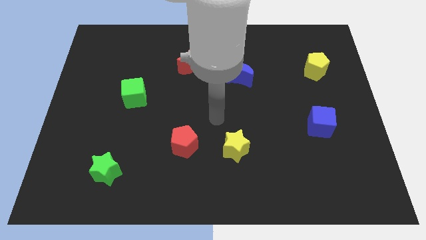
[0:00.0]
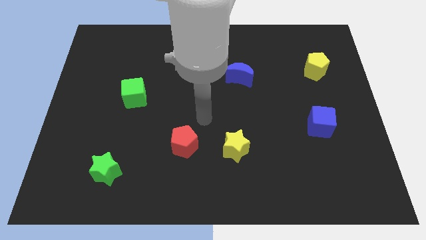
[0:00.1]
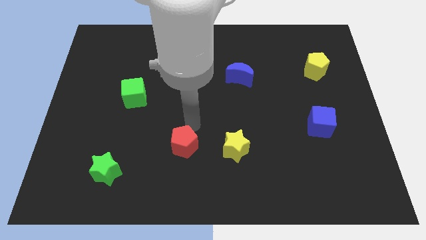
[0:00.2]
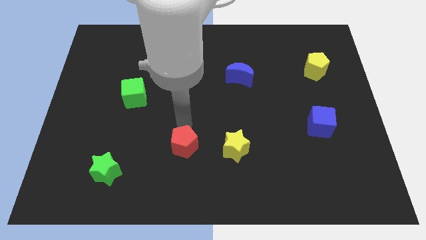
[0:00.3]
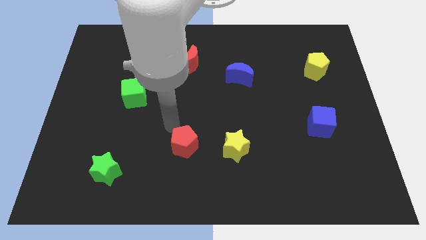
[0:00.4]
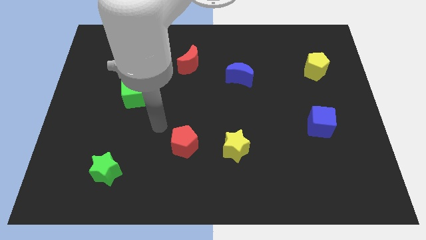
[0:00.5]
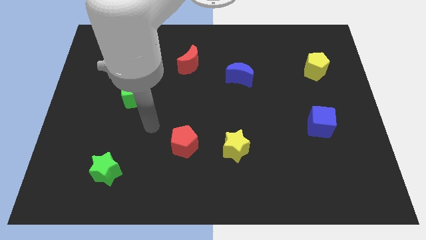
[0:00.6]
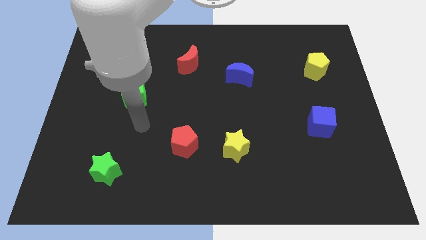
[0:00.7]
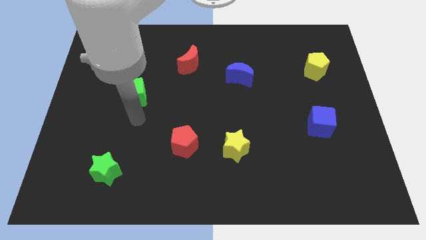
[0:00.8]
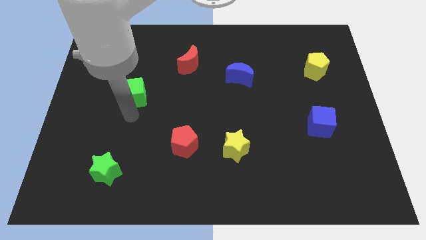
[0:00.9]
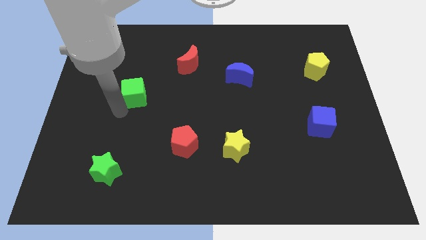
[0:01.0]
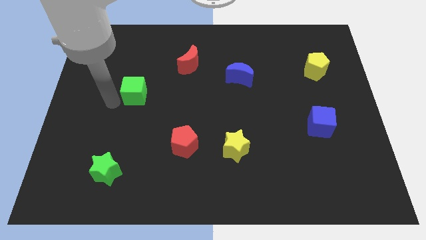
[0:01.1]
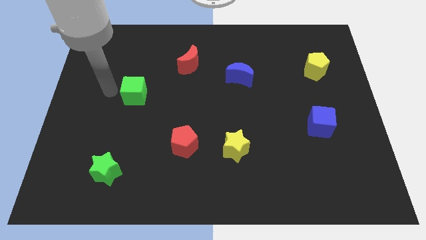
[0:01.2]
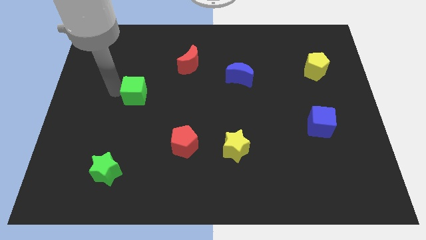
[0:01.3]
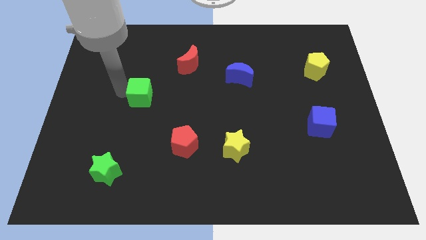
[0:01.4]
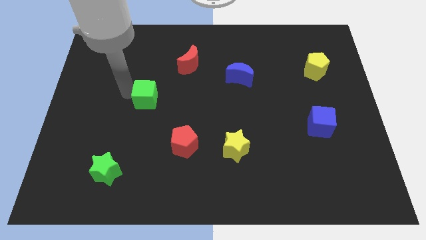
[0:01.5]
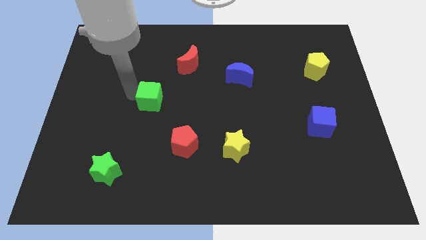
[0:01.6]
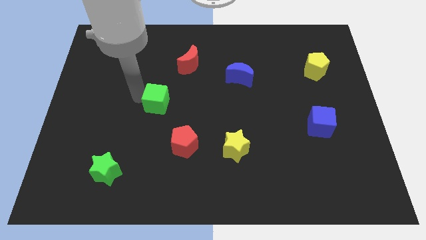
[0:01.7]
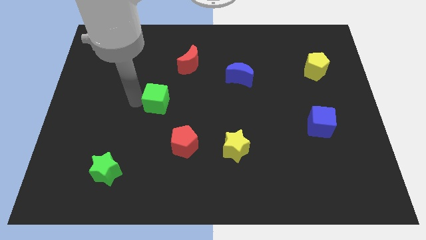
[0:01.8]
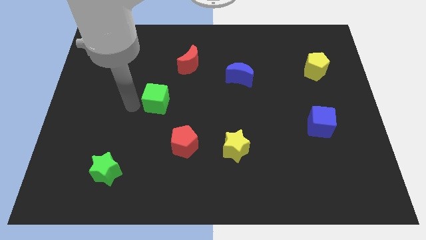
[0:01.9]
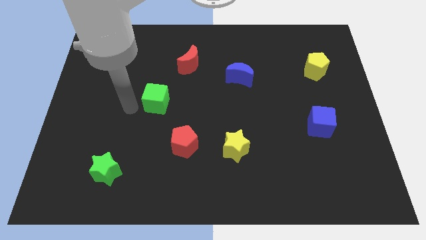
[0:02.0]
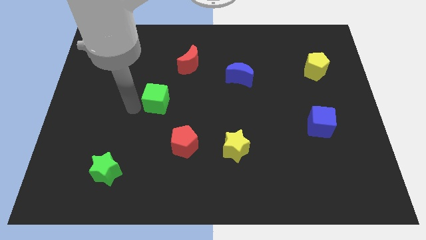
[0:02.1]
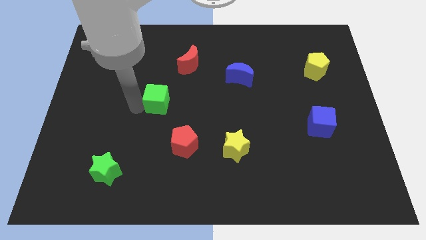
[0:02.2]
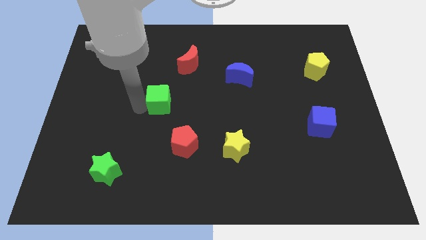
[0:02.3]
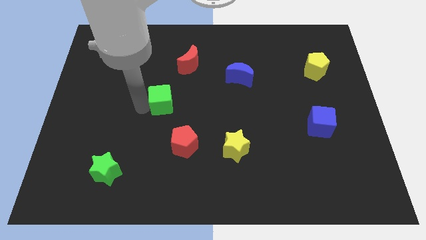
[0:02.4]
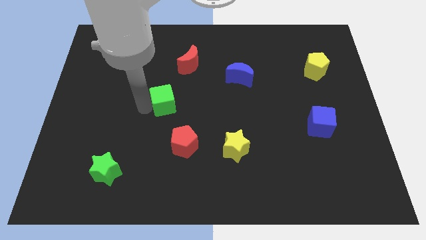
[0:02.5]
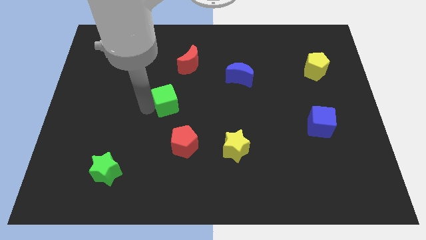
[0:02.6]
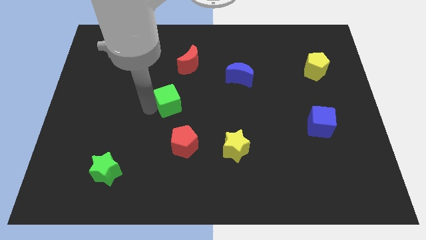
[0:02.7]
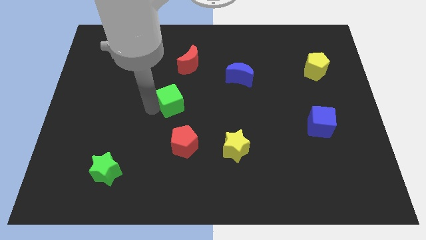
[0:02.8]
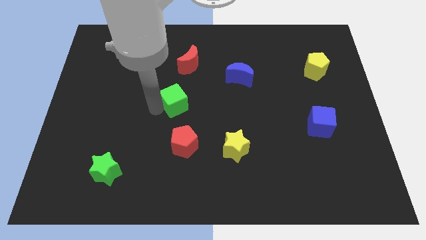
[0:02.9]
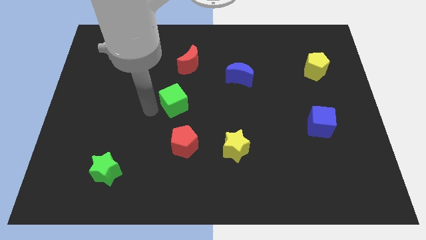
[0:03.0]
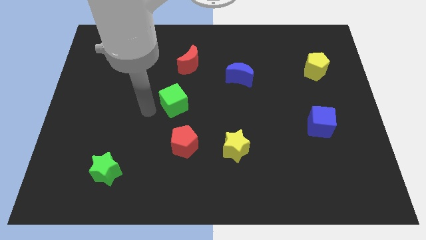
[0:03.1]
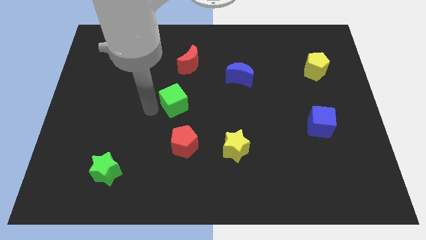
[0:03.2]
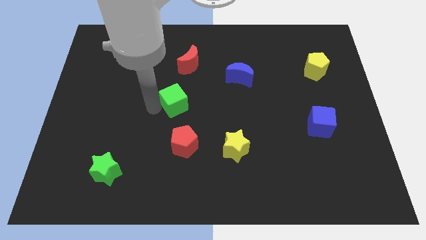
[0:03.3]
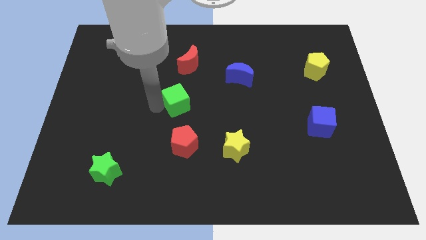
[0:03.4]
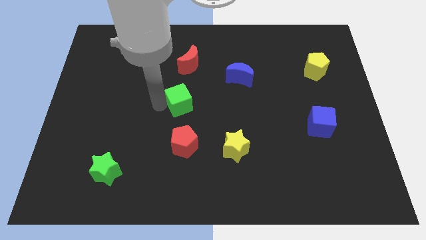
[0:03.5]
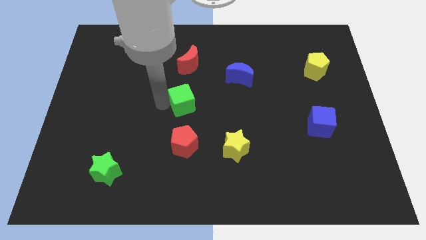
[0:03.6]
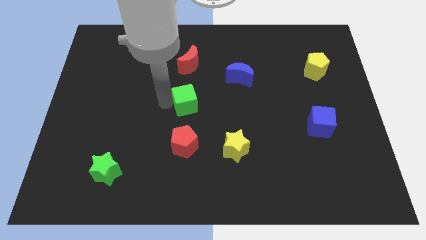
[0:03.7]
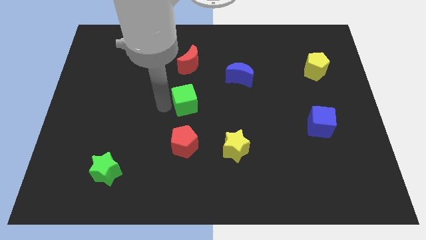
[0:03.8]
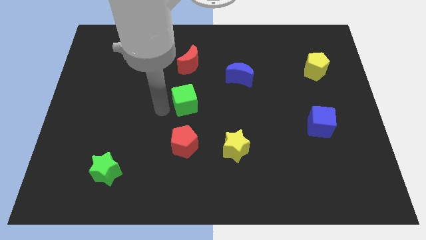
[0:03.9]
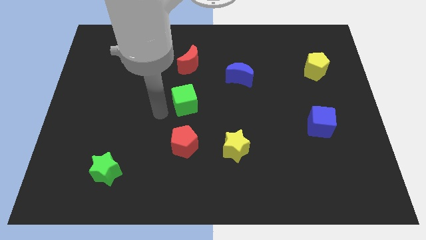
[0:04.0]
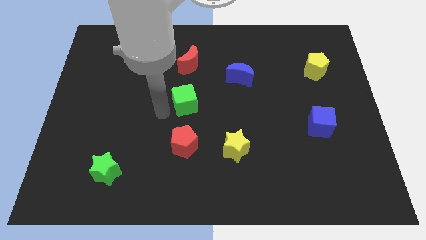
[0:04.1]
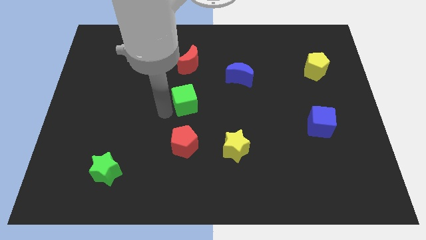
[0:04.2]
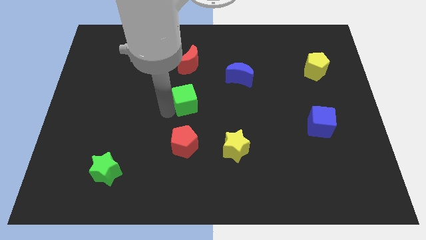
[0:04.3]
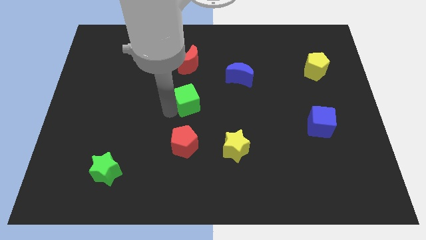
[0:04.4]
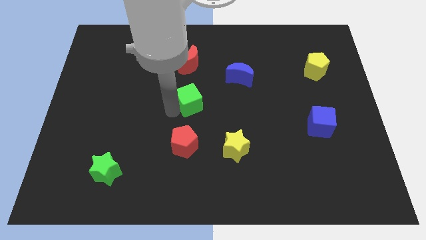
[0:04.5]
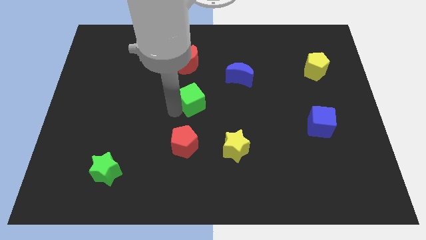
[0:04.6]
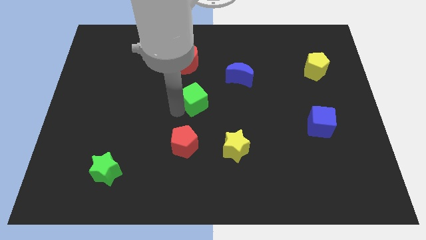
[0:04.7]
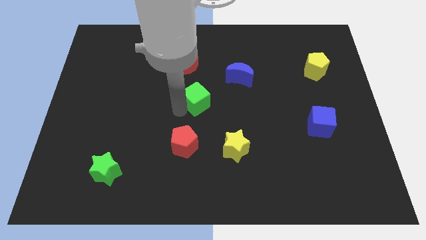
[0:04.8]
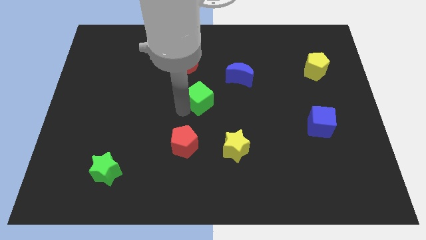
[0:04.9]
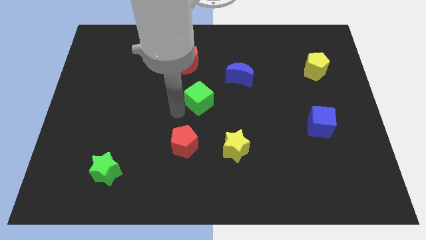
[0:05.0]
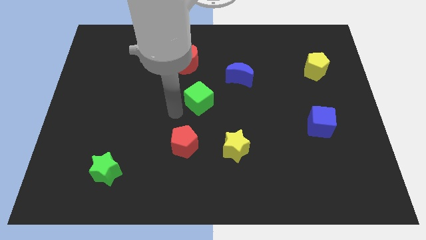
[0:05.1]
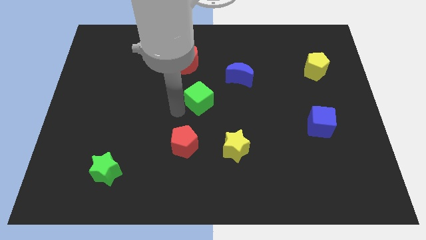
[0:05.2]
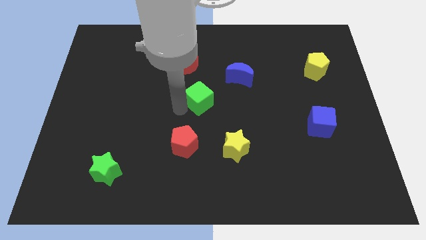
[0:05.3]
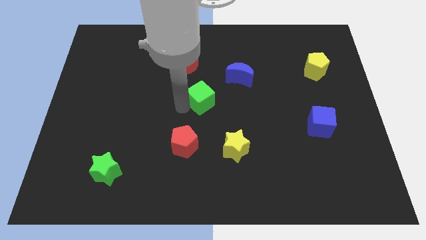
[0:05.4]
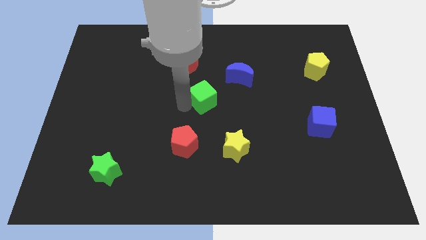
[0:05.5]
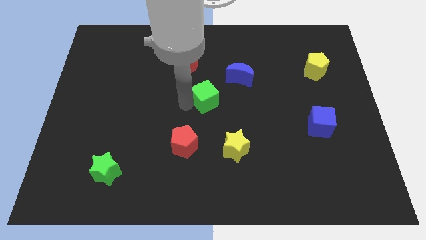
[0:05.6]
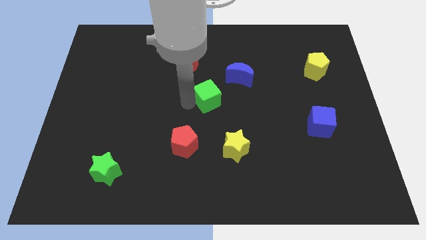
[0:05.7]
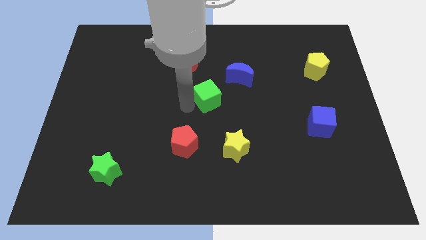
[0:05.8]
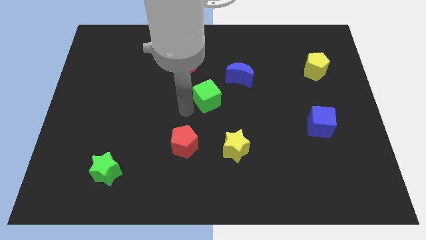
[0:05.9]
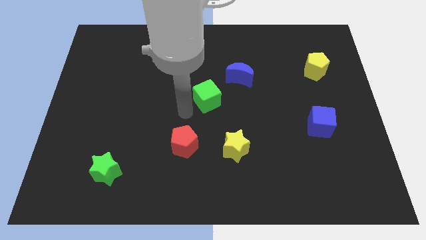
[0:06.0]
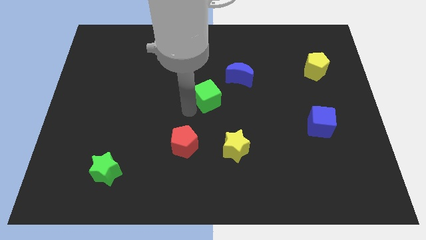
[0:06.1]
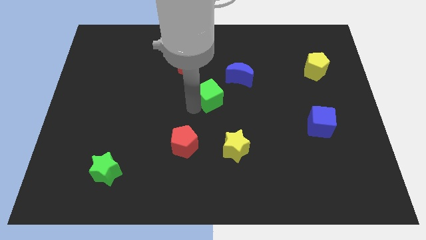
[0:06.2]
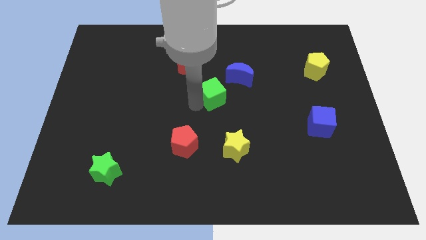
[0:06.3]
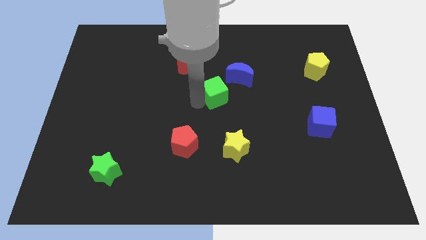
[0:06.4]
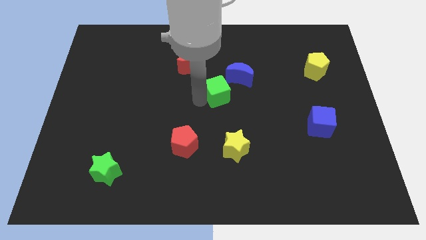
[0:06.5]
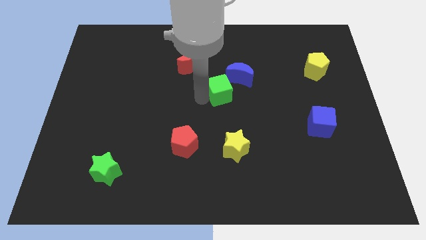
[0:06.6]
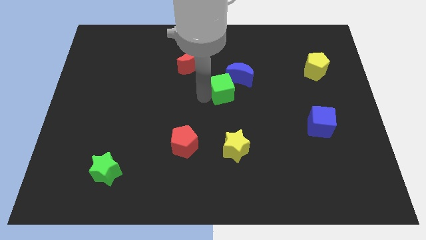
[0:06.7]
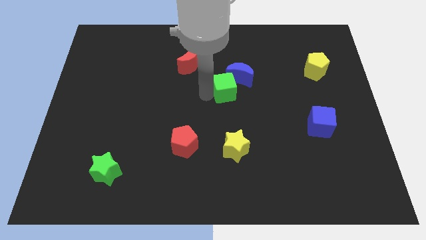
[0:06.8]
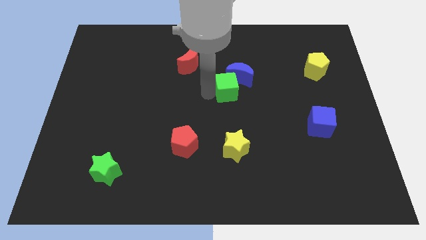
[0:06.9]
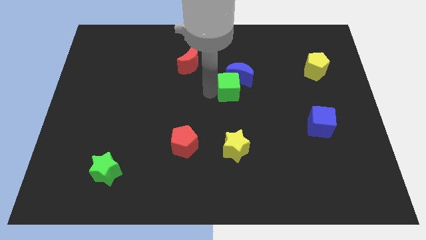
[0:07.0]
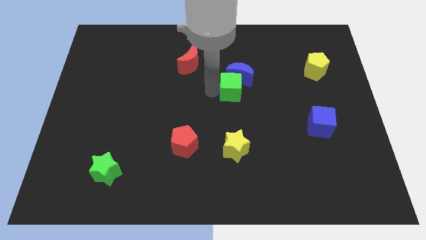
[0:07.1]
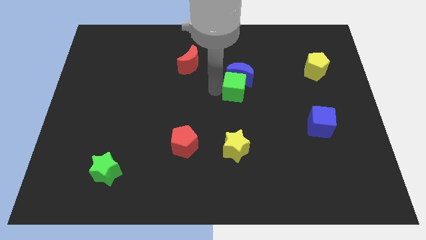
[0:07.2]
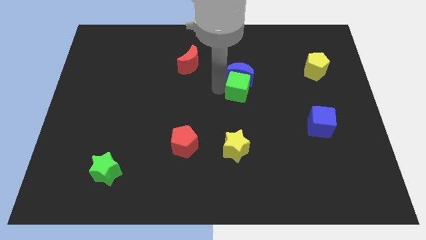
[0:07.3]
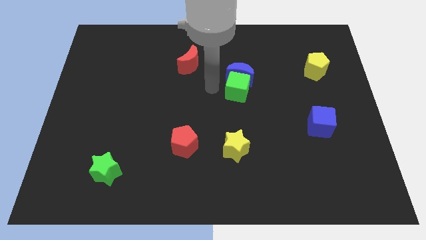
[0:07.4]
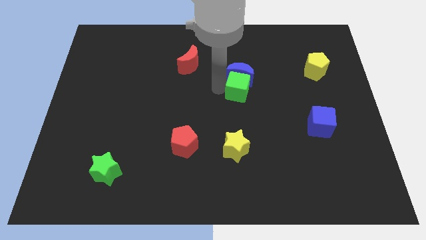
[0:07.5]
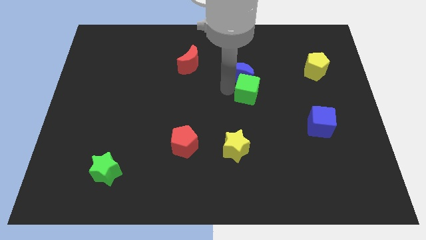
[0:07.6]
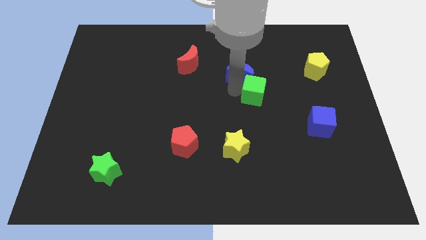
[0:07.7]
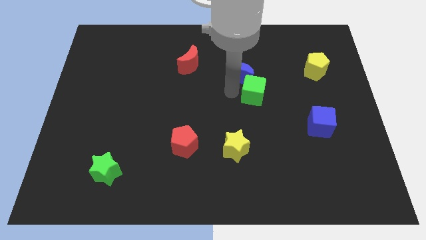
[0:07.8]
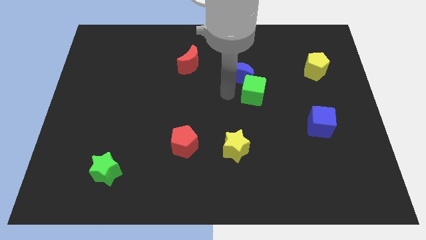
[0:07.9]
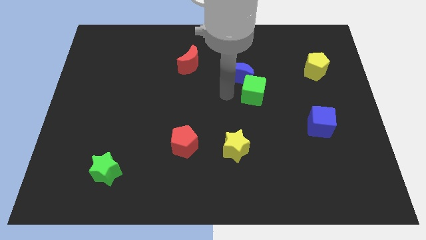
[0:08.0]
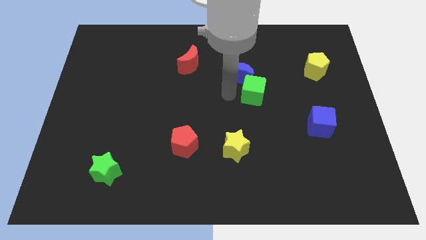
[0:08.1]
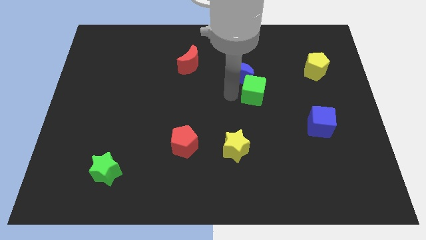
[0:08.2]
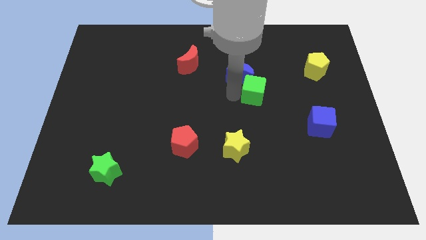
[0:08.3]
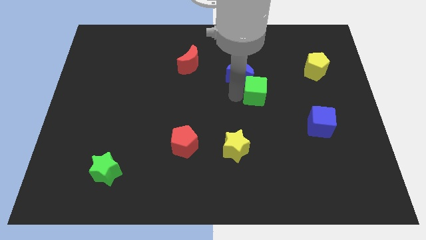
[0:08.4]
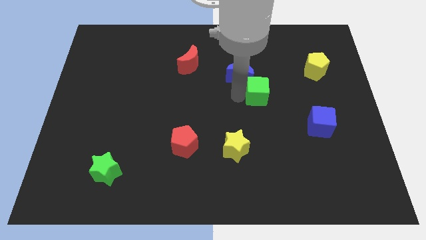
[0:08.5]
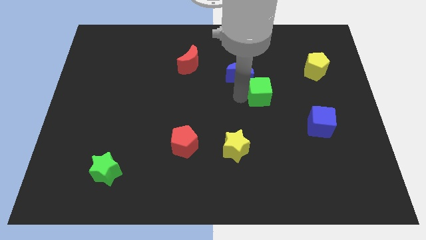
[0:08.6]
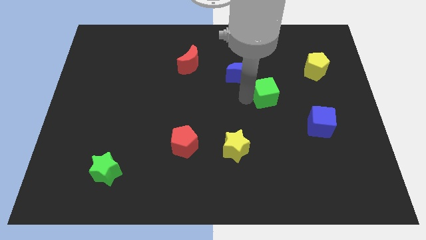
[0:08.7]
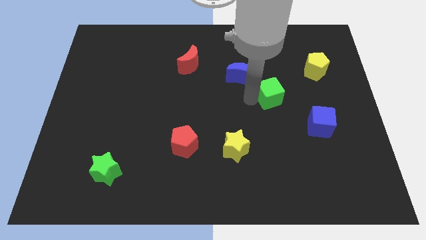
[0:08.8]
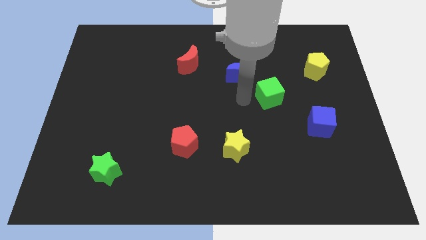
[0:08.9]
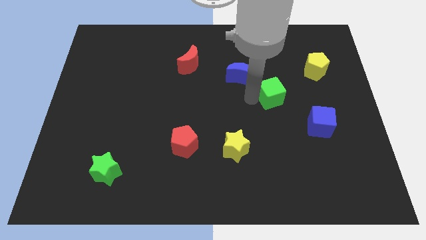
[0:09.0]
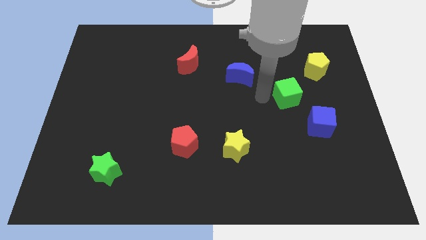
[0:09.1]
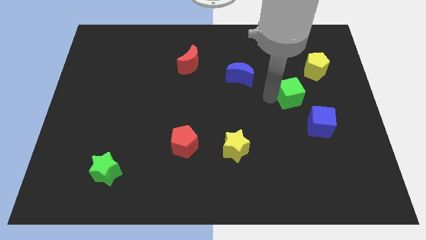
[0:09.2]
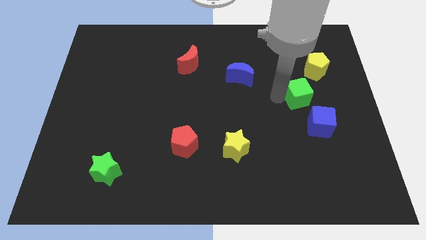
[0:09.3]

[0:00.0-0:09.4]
put the green cube above the blue cube
